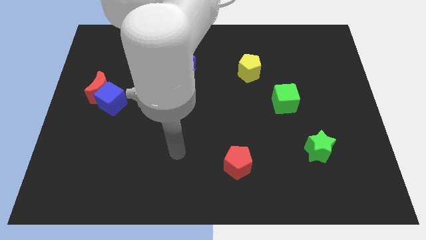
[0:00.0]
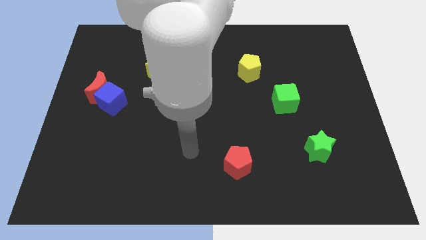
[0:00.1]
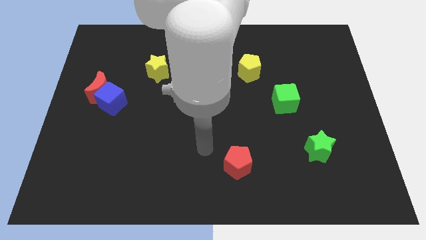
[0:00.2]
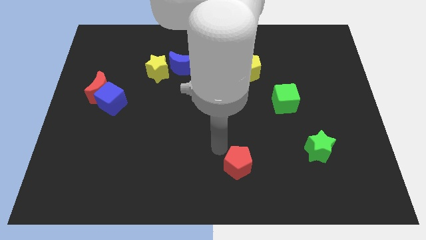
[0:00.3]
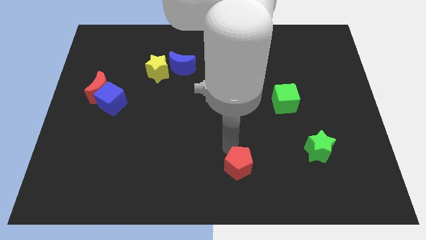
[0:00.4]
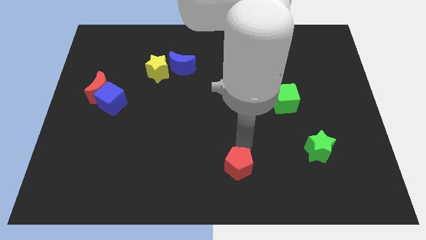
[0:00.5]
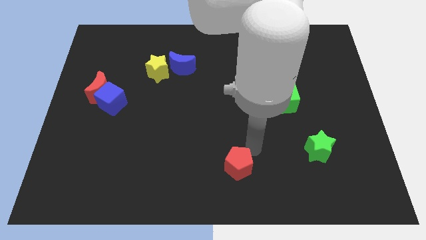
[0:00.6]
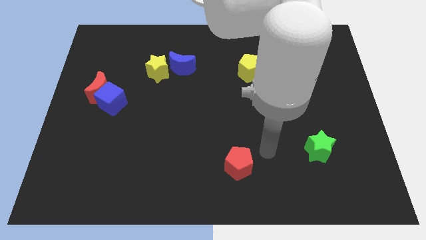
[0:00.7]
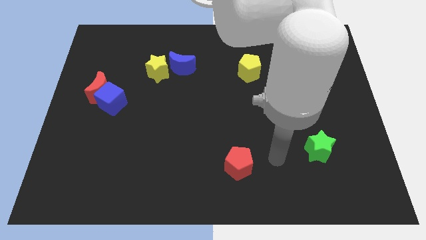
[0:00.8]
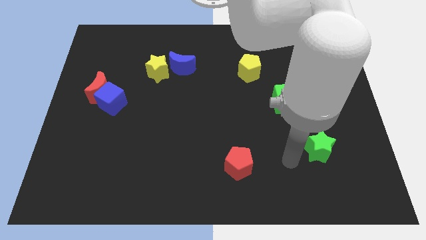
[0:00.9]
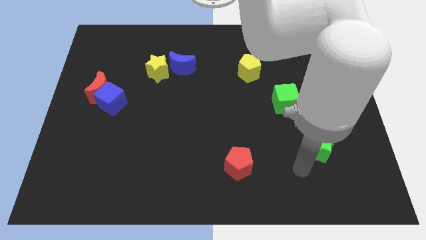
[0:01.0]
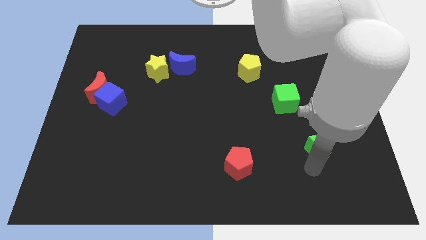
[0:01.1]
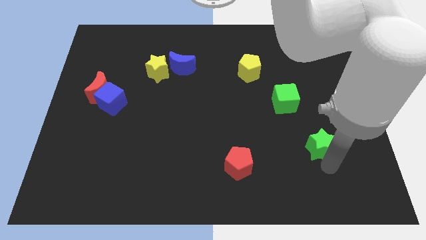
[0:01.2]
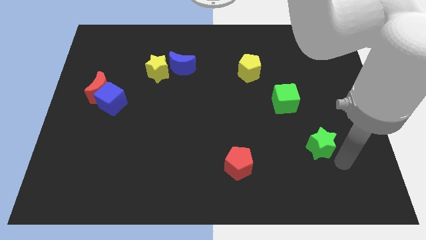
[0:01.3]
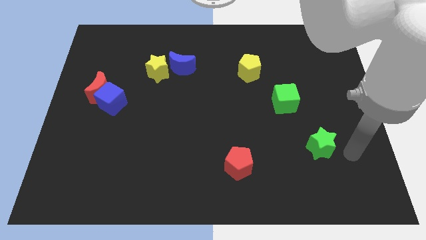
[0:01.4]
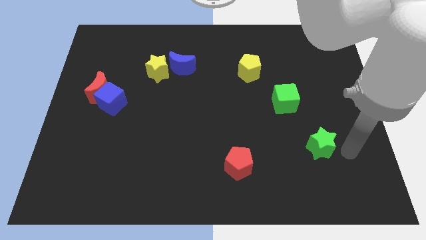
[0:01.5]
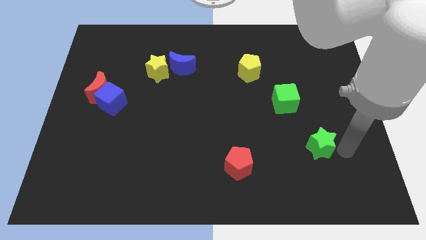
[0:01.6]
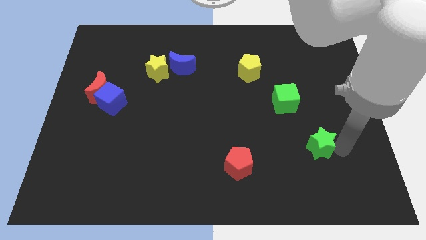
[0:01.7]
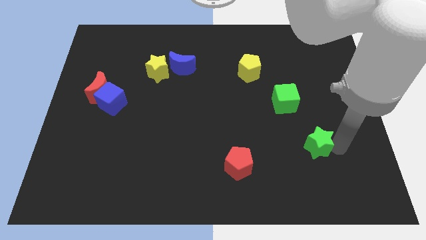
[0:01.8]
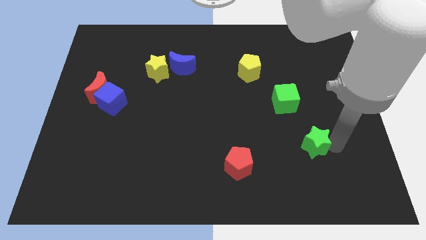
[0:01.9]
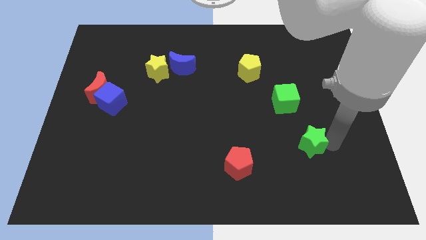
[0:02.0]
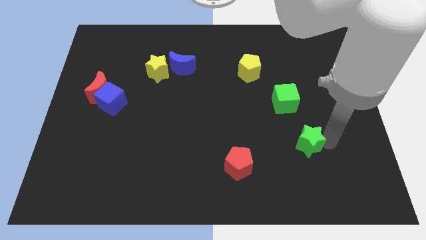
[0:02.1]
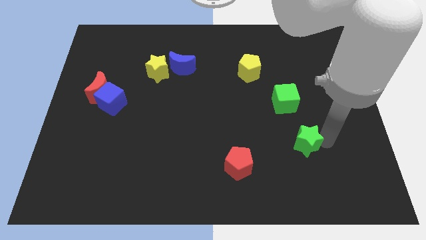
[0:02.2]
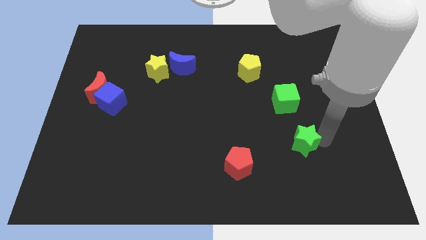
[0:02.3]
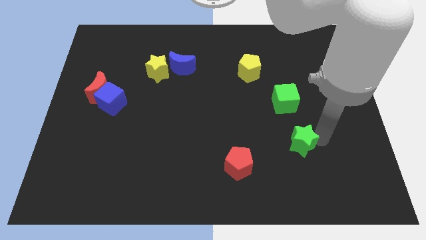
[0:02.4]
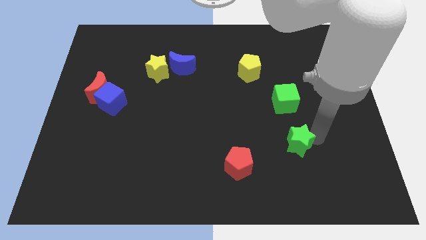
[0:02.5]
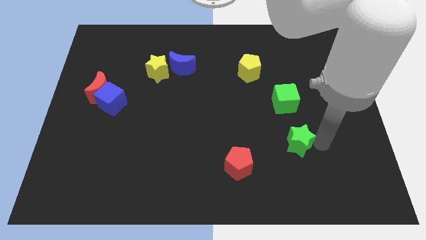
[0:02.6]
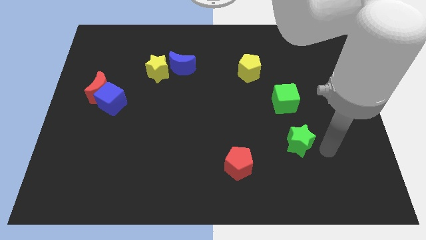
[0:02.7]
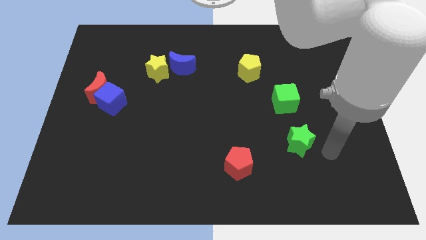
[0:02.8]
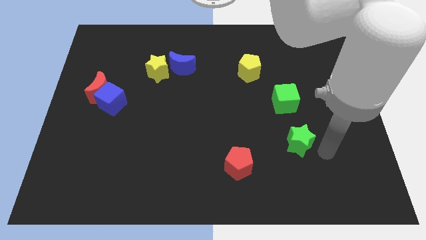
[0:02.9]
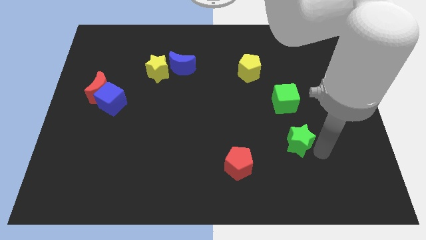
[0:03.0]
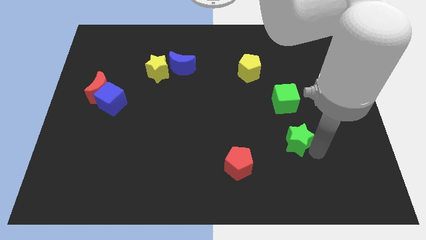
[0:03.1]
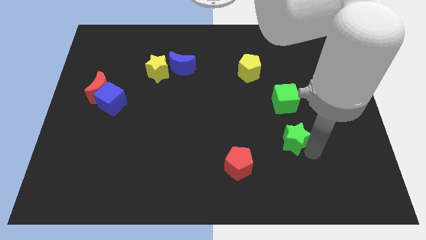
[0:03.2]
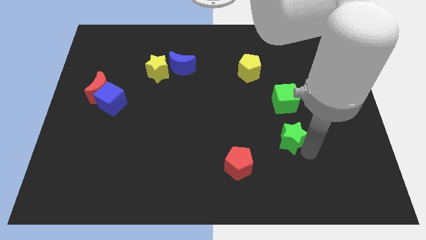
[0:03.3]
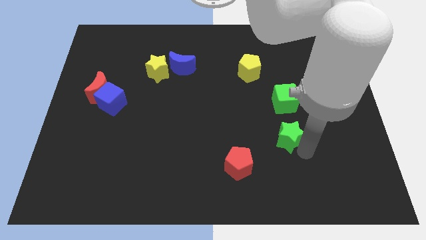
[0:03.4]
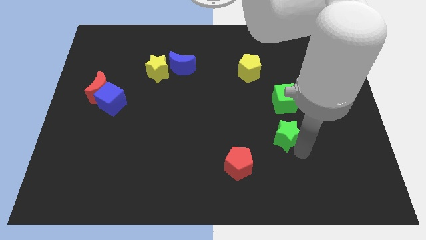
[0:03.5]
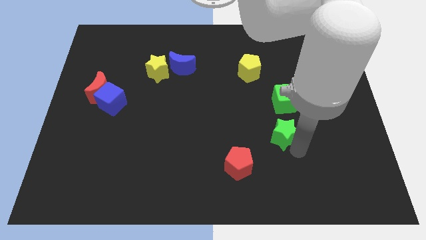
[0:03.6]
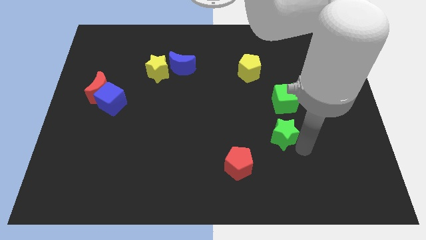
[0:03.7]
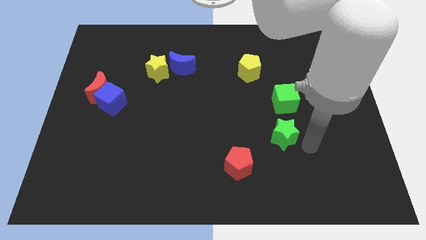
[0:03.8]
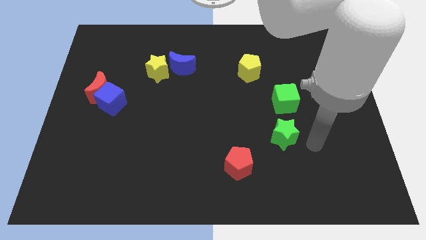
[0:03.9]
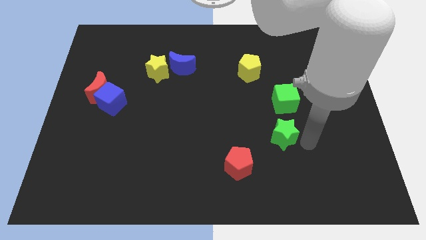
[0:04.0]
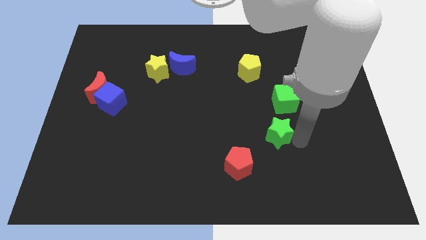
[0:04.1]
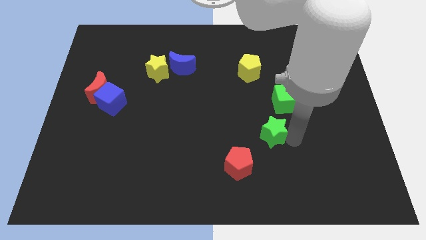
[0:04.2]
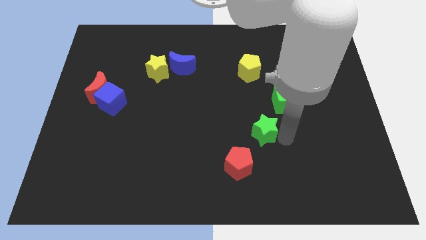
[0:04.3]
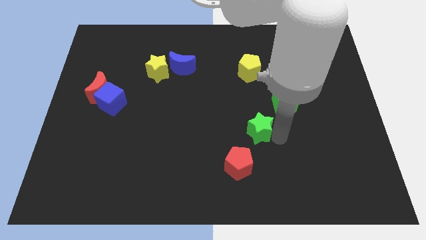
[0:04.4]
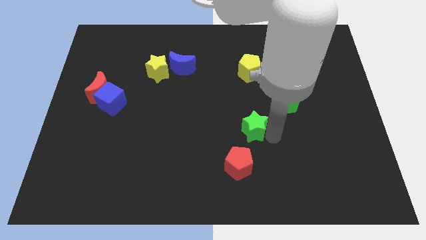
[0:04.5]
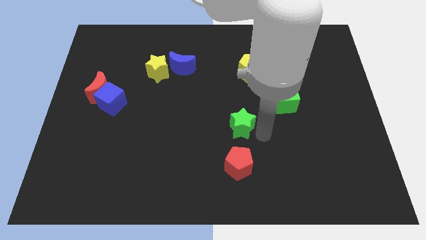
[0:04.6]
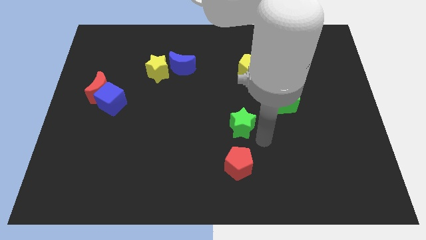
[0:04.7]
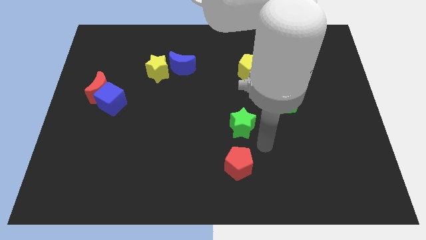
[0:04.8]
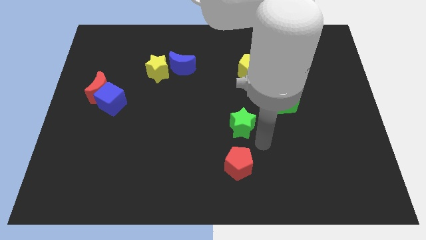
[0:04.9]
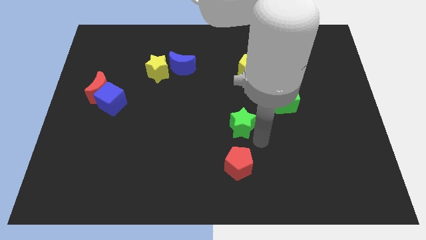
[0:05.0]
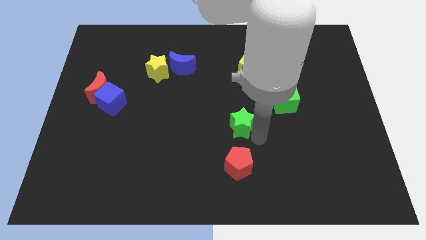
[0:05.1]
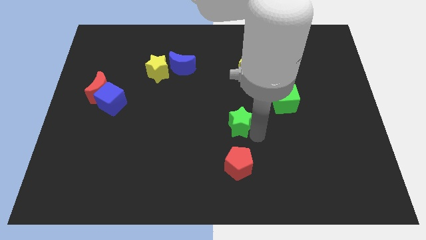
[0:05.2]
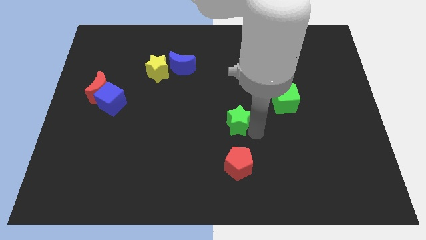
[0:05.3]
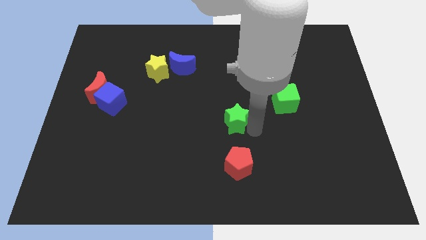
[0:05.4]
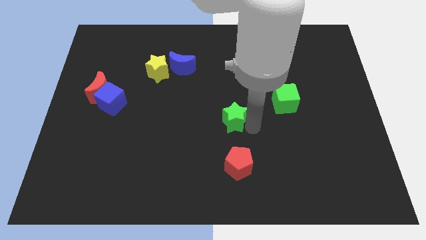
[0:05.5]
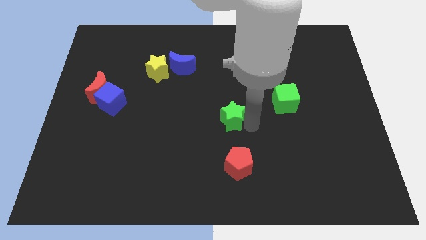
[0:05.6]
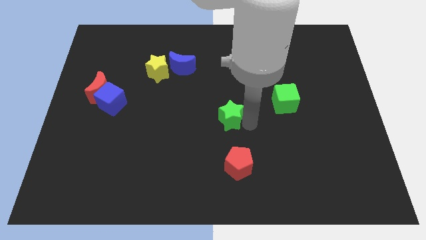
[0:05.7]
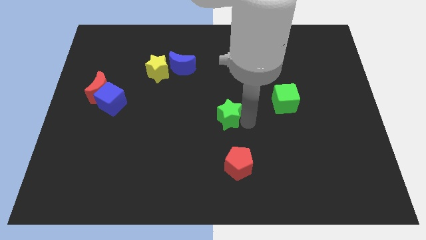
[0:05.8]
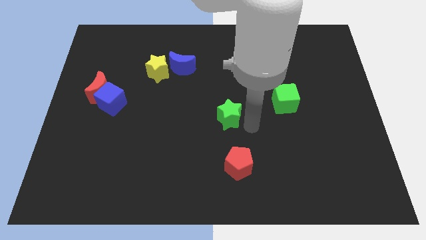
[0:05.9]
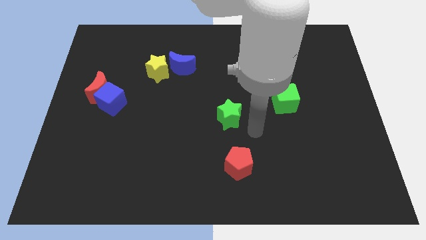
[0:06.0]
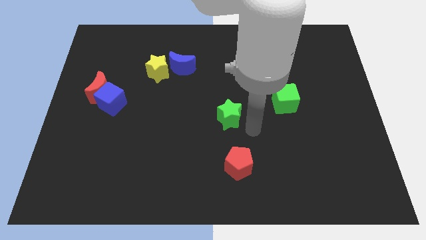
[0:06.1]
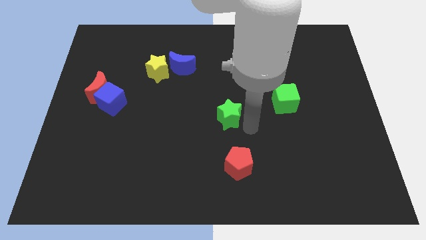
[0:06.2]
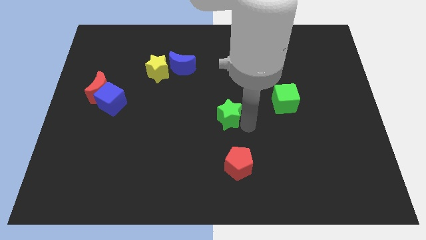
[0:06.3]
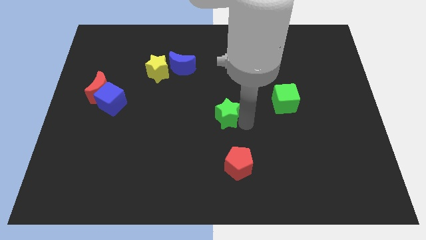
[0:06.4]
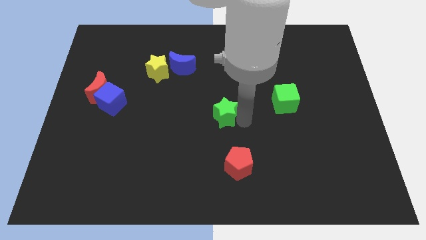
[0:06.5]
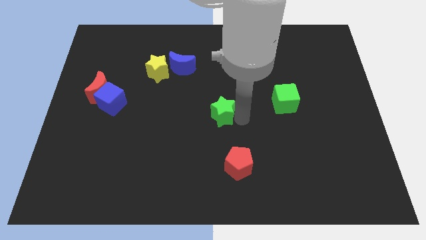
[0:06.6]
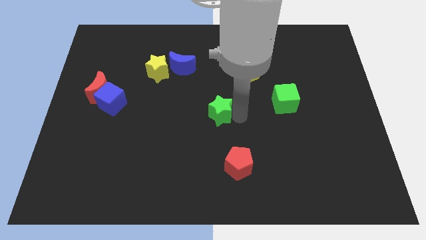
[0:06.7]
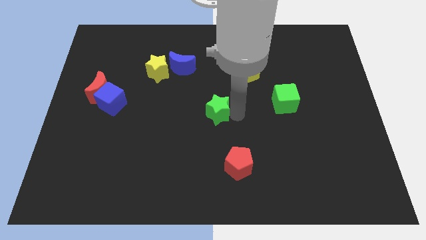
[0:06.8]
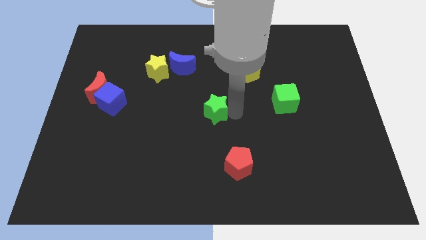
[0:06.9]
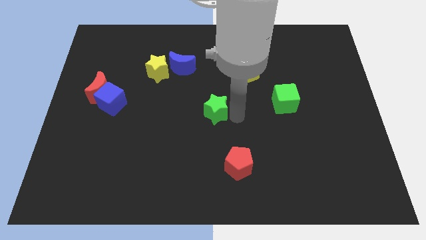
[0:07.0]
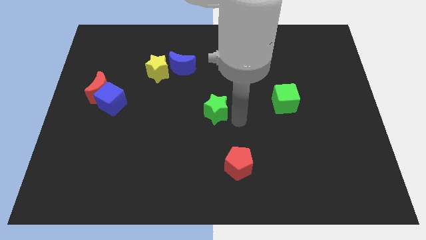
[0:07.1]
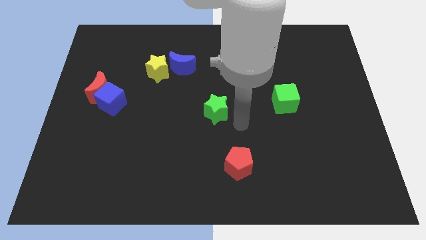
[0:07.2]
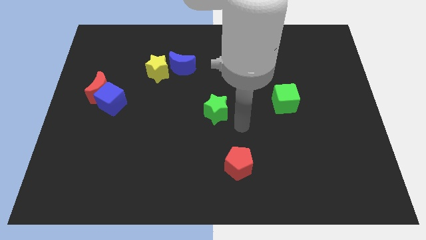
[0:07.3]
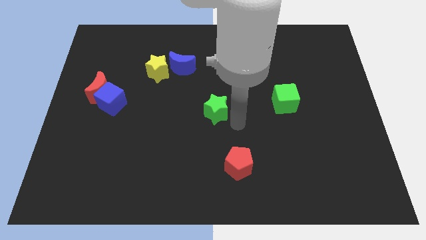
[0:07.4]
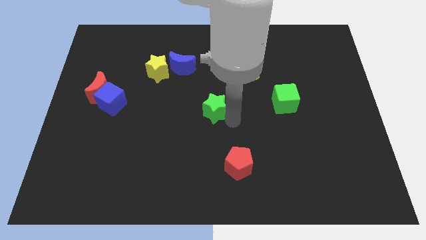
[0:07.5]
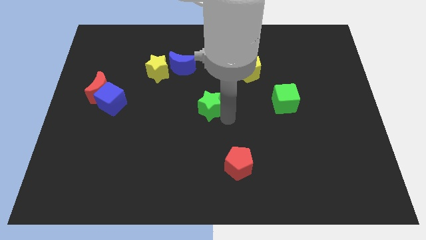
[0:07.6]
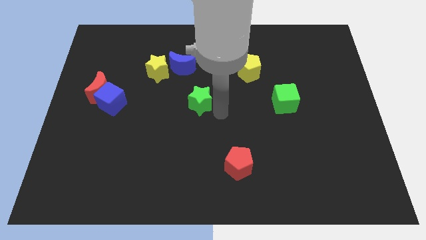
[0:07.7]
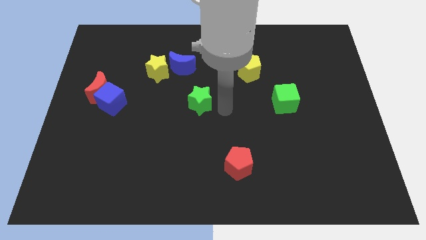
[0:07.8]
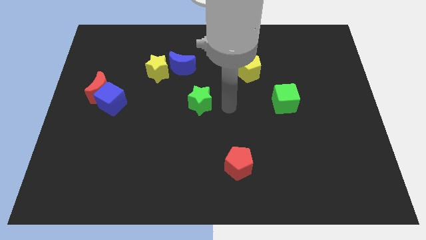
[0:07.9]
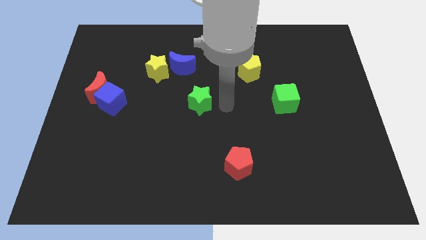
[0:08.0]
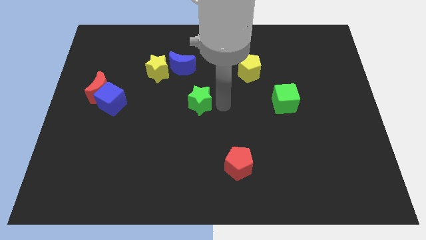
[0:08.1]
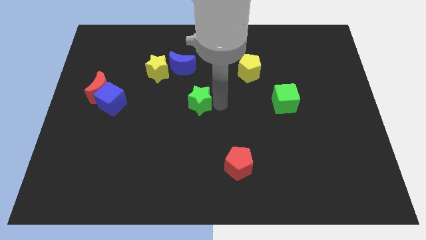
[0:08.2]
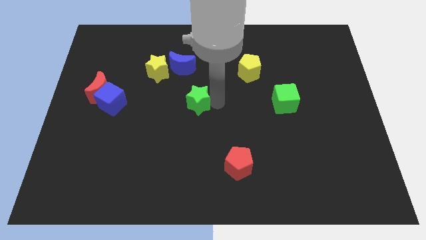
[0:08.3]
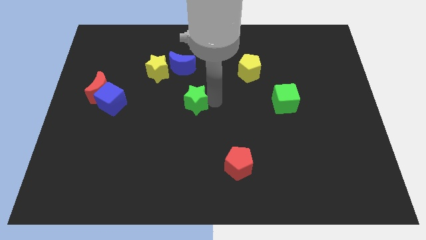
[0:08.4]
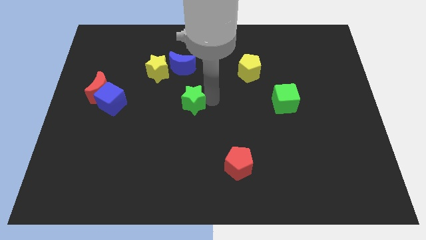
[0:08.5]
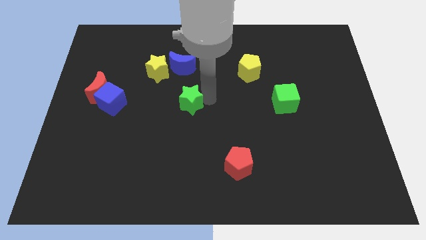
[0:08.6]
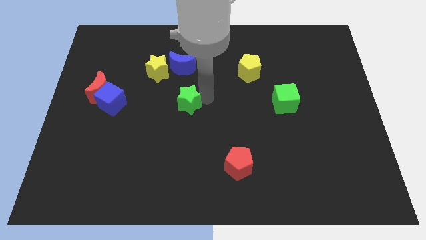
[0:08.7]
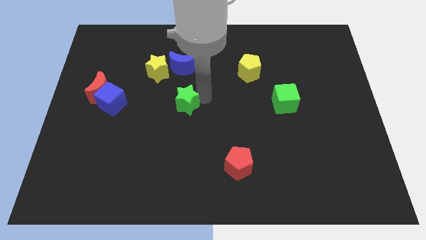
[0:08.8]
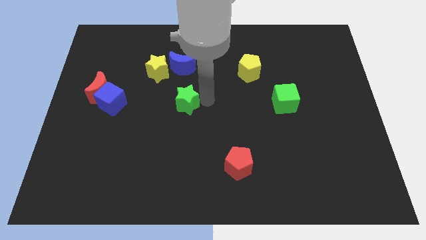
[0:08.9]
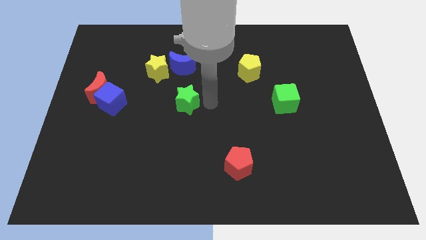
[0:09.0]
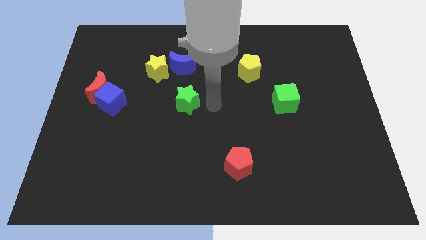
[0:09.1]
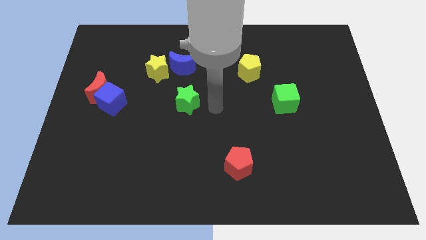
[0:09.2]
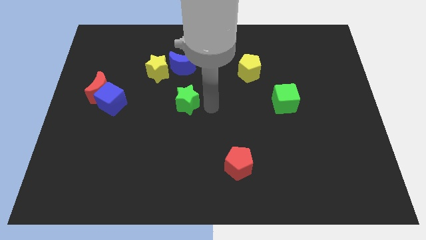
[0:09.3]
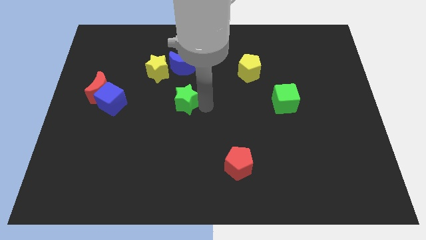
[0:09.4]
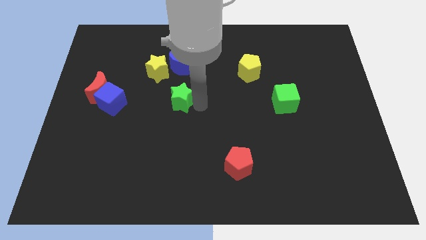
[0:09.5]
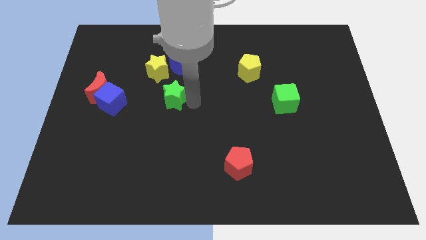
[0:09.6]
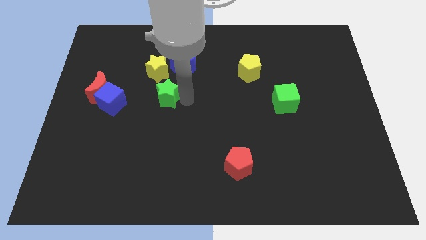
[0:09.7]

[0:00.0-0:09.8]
slide the green star to the bottom of the yellow star
